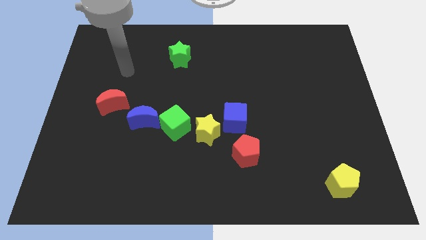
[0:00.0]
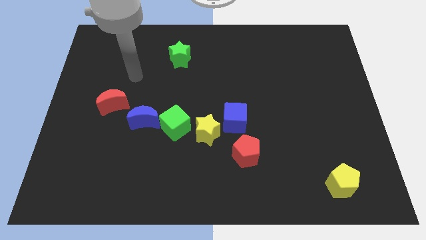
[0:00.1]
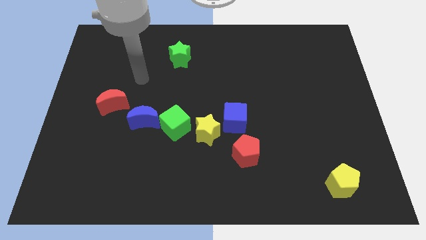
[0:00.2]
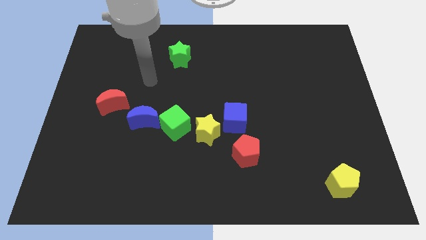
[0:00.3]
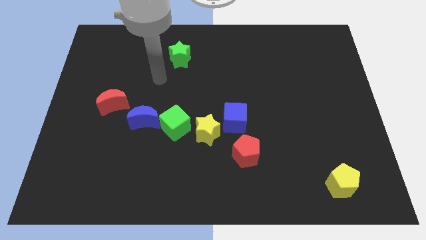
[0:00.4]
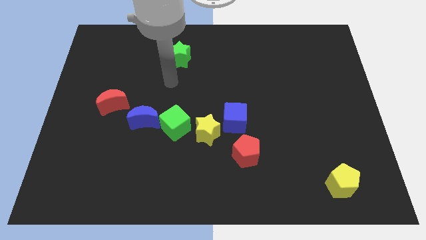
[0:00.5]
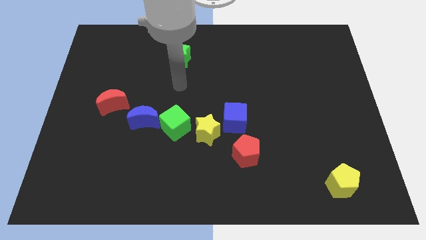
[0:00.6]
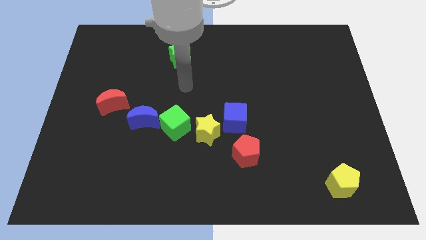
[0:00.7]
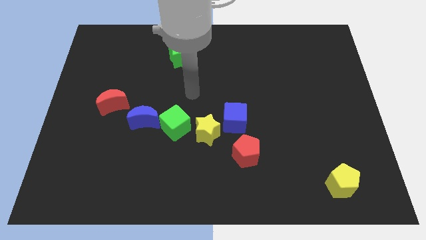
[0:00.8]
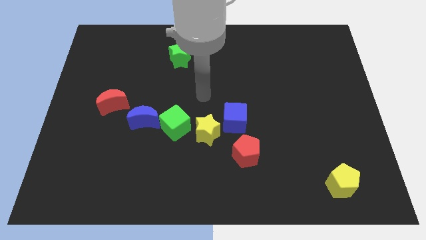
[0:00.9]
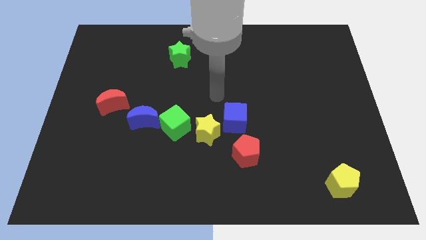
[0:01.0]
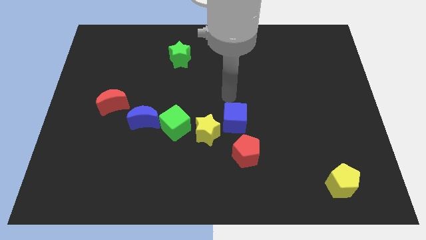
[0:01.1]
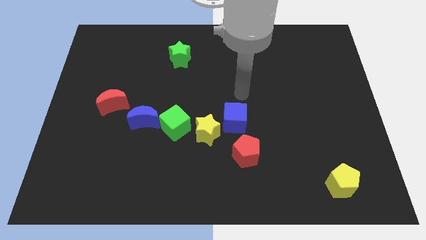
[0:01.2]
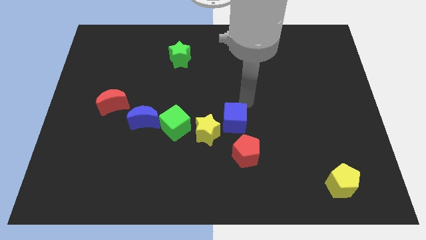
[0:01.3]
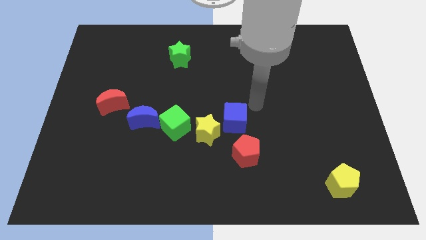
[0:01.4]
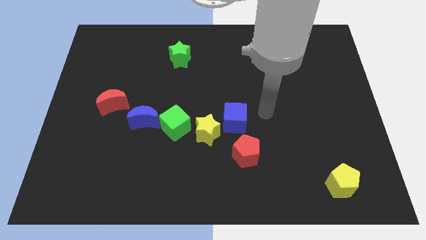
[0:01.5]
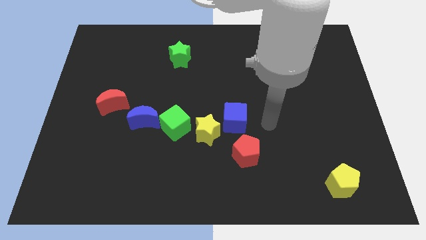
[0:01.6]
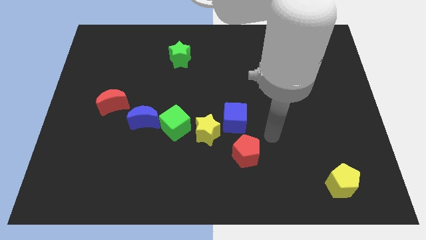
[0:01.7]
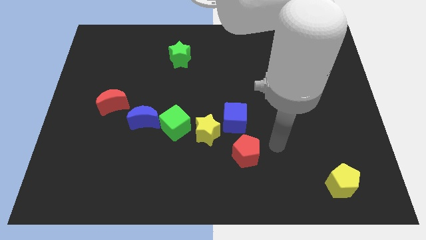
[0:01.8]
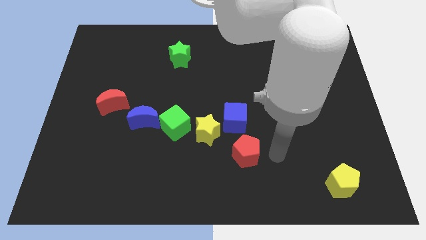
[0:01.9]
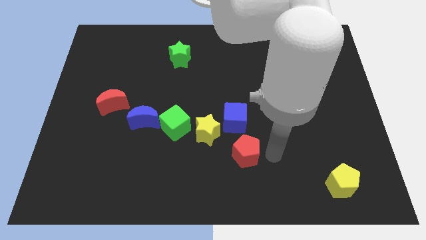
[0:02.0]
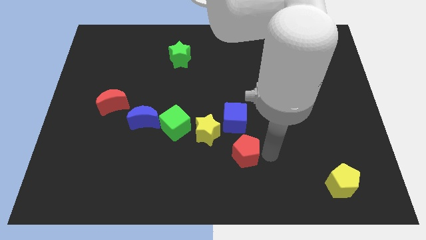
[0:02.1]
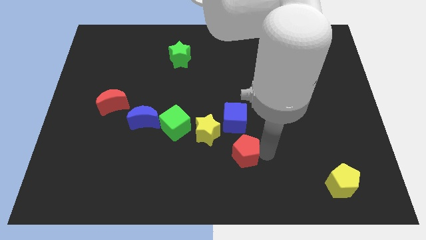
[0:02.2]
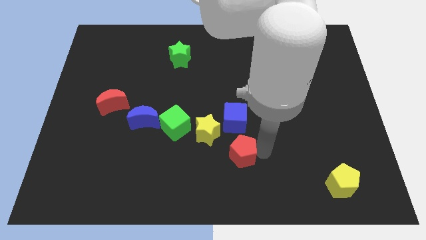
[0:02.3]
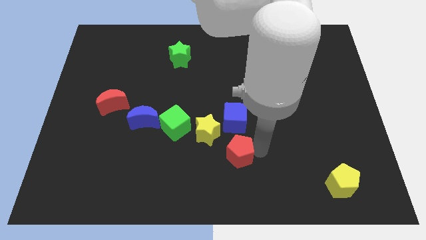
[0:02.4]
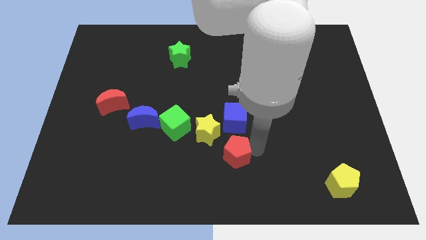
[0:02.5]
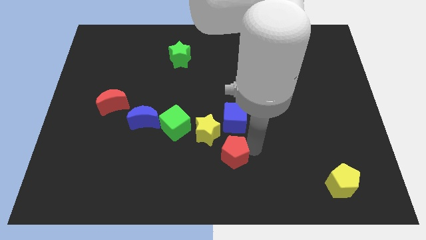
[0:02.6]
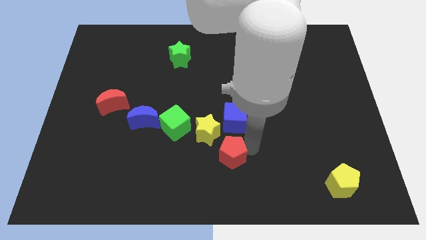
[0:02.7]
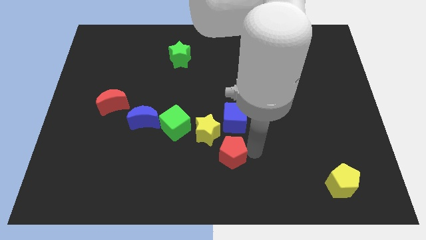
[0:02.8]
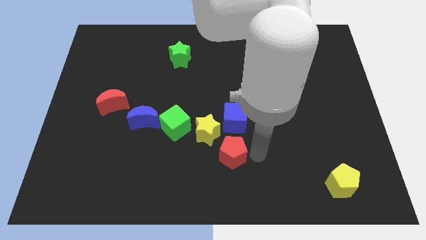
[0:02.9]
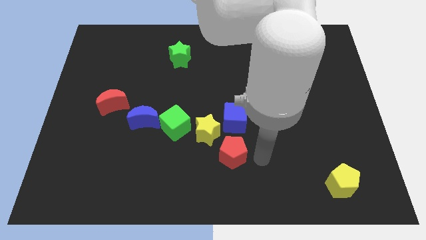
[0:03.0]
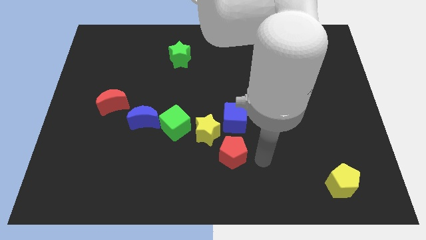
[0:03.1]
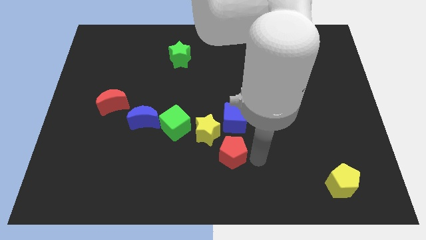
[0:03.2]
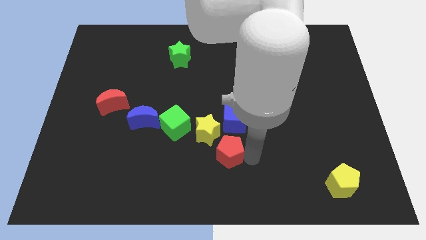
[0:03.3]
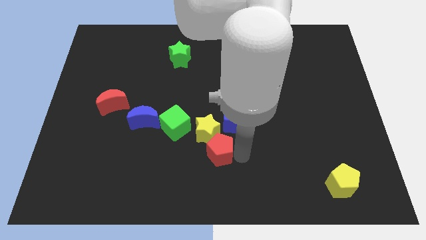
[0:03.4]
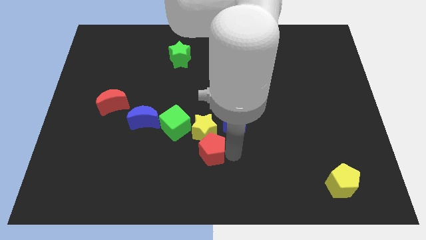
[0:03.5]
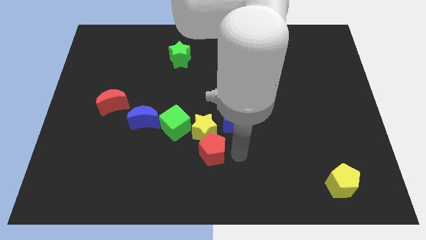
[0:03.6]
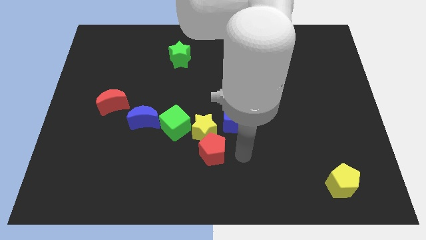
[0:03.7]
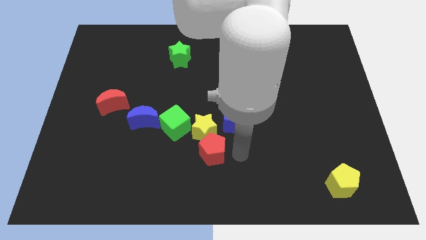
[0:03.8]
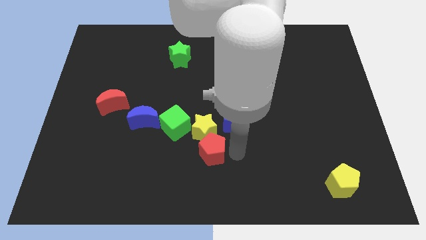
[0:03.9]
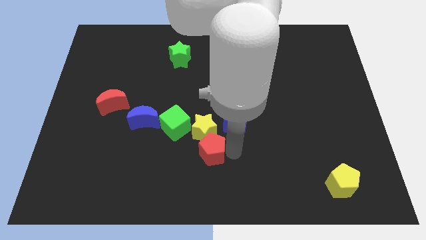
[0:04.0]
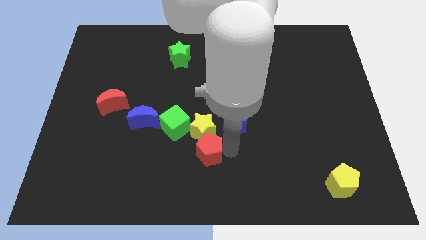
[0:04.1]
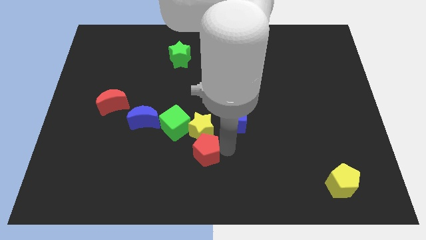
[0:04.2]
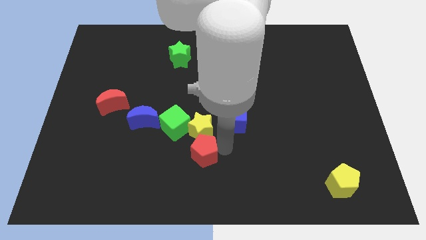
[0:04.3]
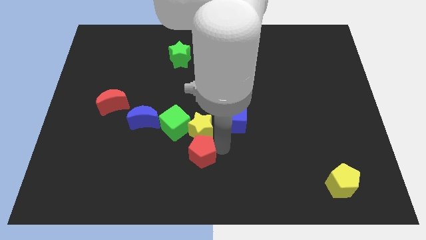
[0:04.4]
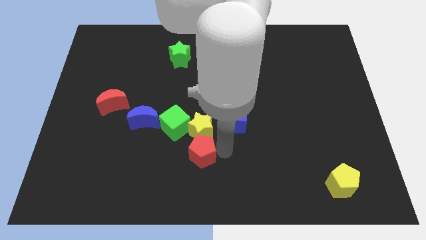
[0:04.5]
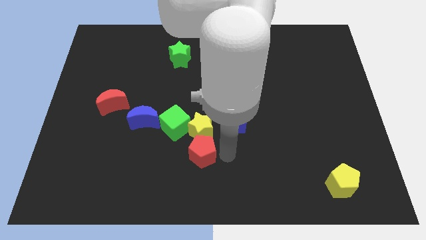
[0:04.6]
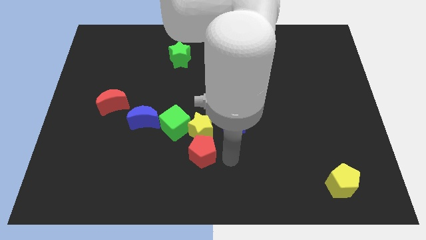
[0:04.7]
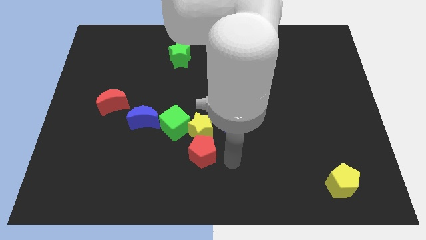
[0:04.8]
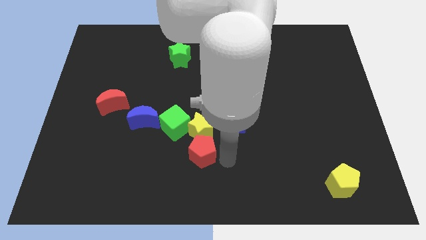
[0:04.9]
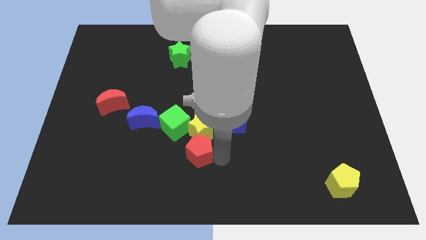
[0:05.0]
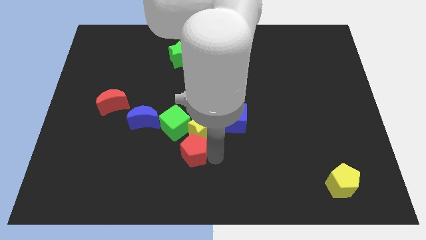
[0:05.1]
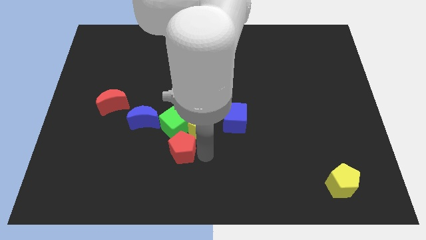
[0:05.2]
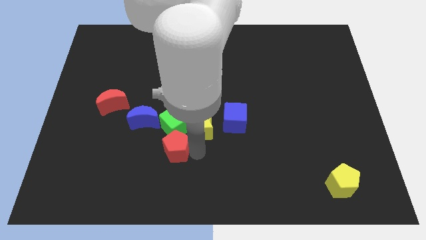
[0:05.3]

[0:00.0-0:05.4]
move the red pentagon to the bottom left of the green cube

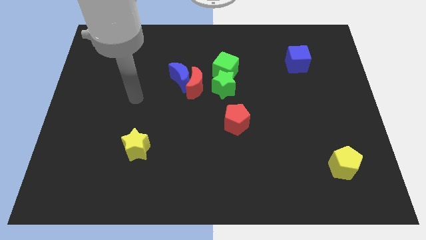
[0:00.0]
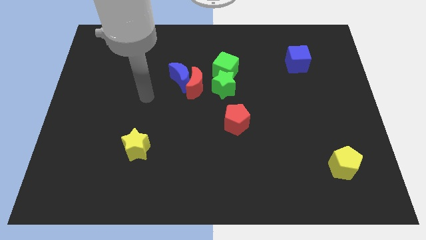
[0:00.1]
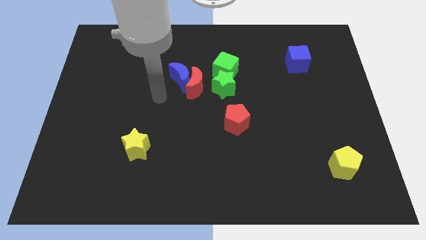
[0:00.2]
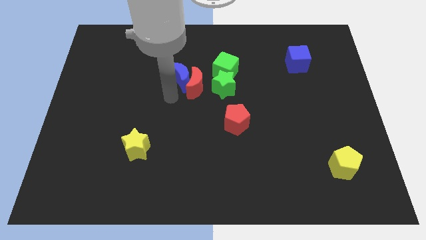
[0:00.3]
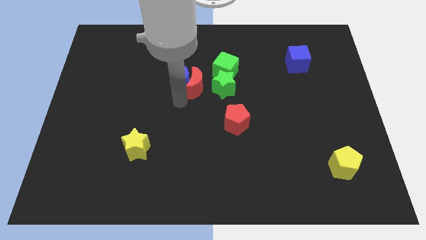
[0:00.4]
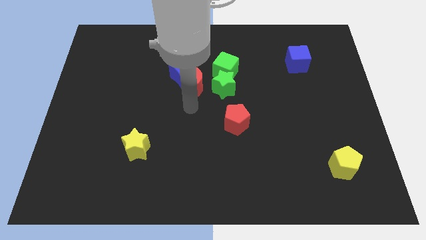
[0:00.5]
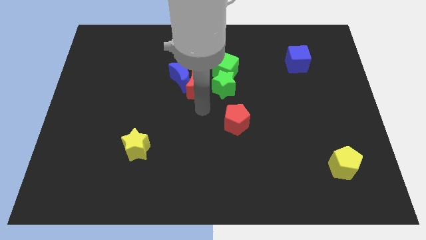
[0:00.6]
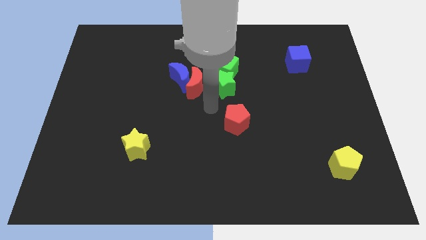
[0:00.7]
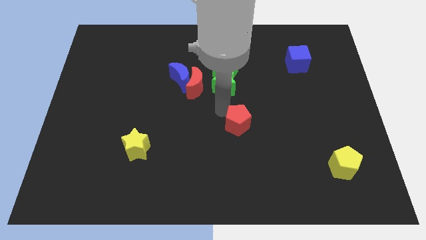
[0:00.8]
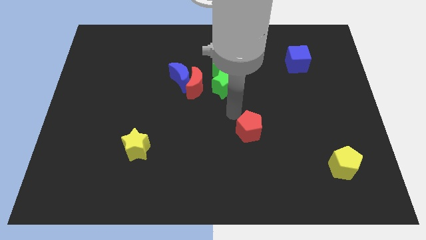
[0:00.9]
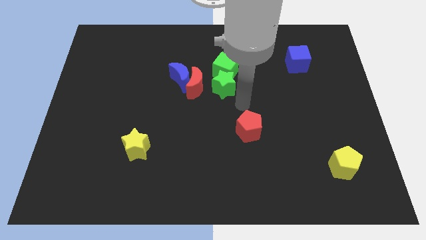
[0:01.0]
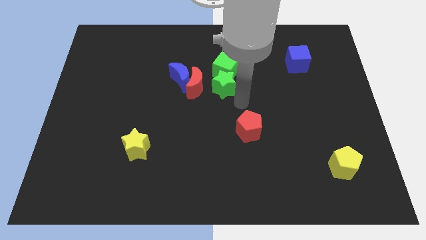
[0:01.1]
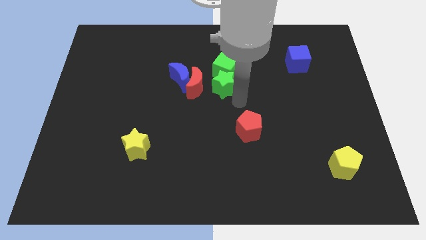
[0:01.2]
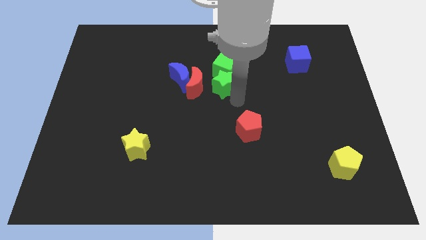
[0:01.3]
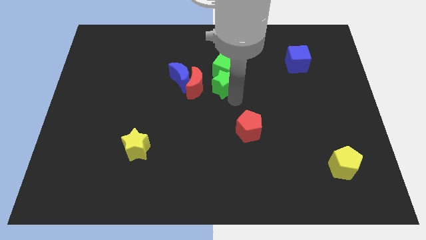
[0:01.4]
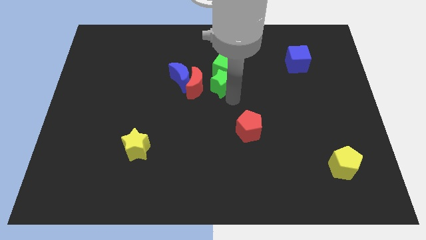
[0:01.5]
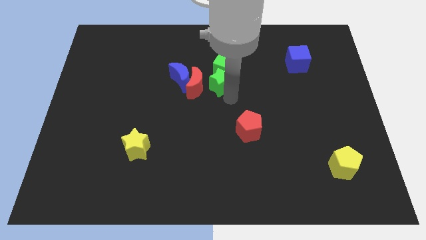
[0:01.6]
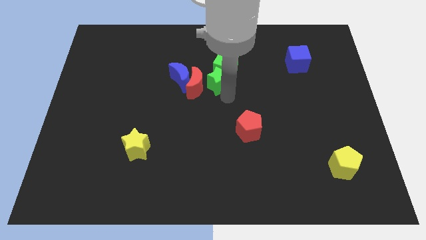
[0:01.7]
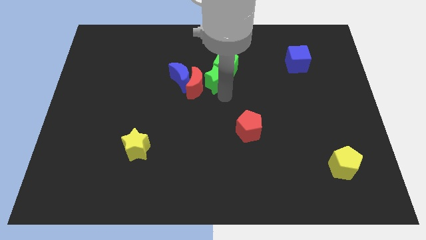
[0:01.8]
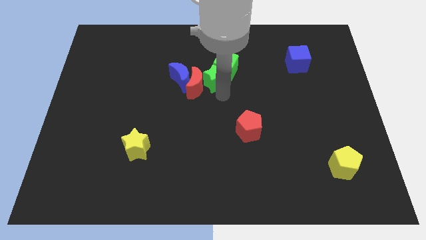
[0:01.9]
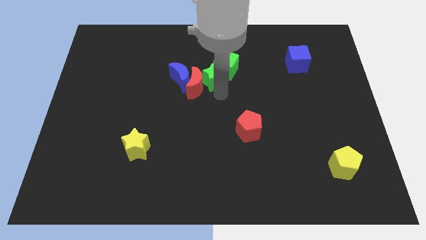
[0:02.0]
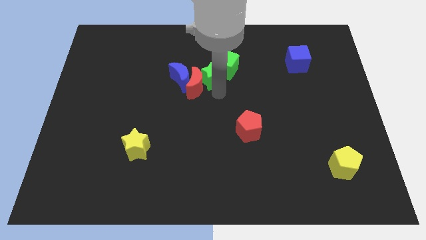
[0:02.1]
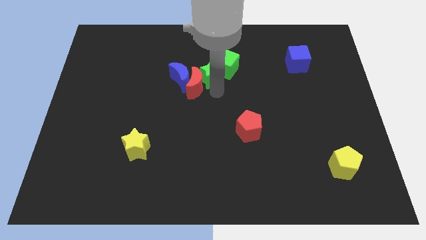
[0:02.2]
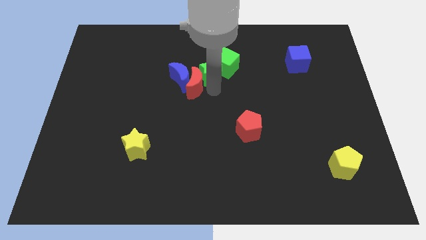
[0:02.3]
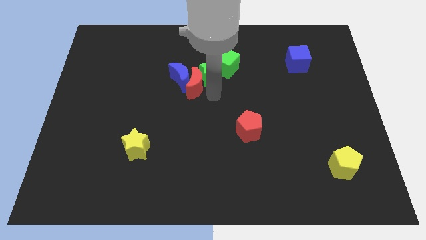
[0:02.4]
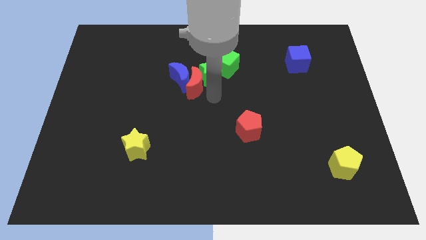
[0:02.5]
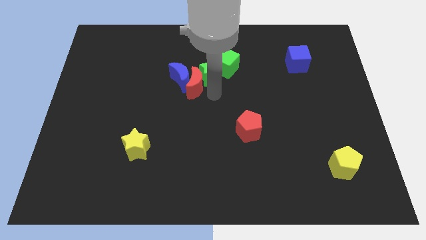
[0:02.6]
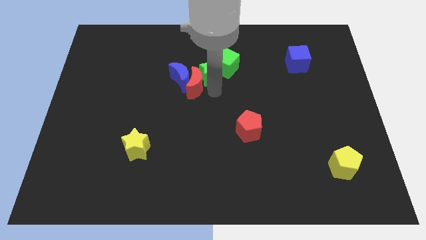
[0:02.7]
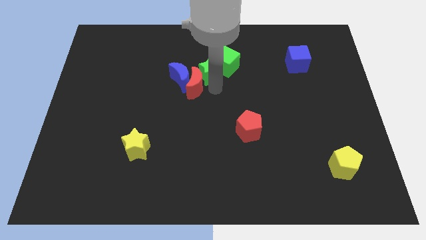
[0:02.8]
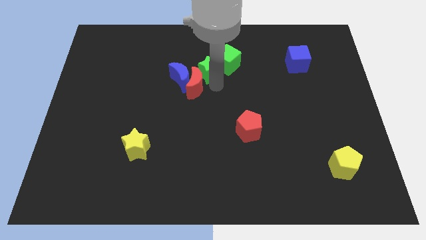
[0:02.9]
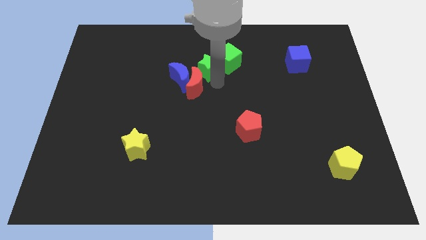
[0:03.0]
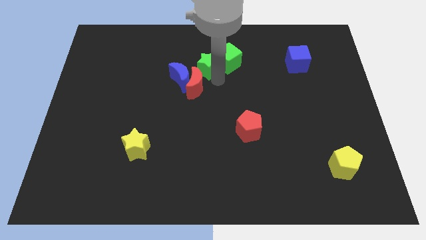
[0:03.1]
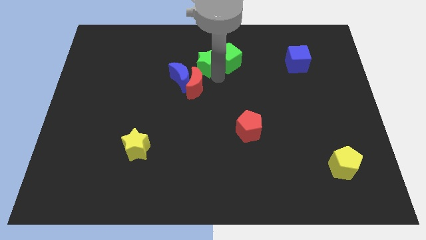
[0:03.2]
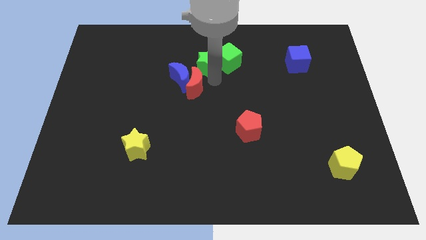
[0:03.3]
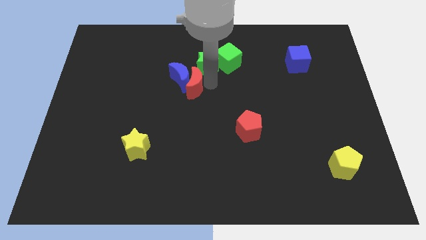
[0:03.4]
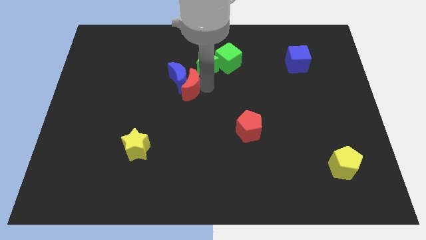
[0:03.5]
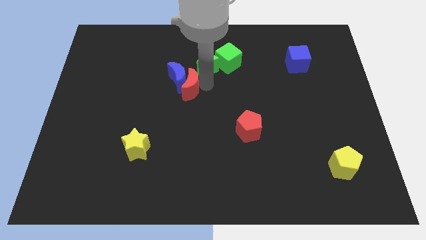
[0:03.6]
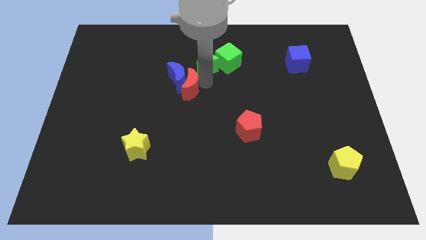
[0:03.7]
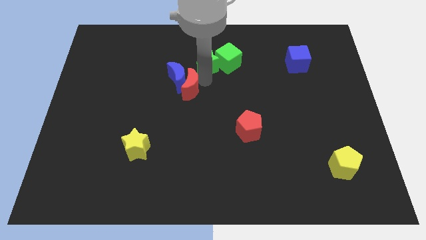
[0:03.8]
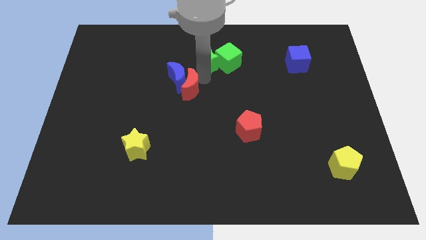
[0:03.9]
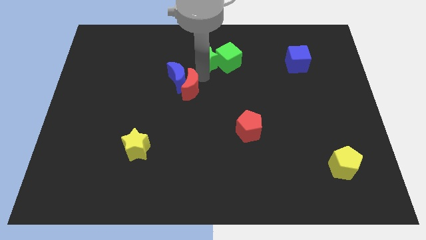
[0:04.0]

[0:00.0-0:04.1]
put the green star to the top left side of the green cube
